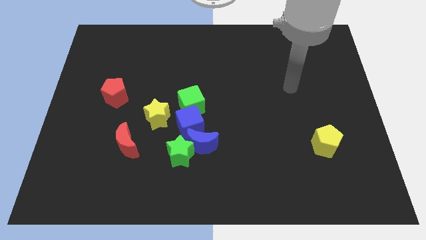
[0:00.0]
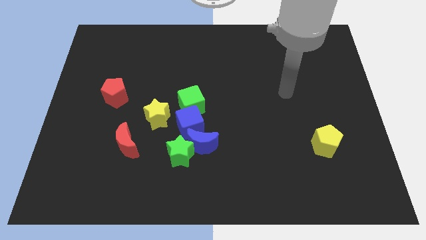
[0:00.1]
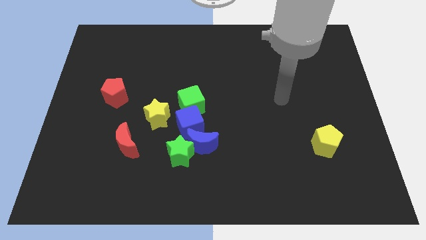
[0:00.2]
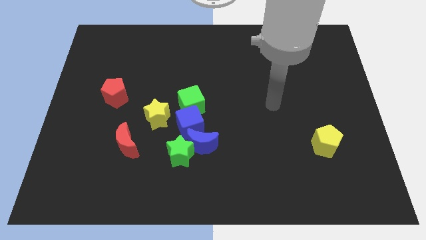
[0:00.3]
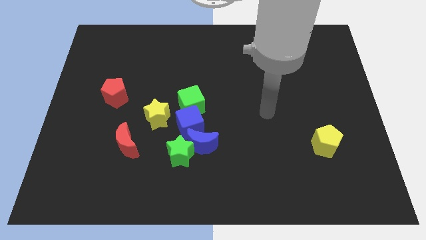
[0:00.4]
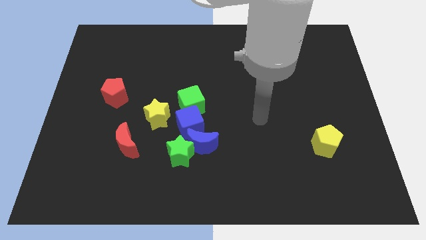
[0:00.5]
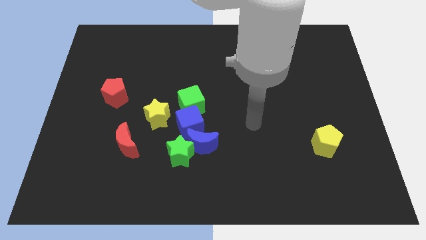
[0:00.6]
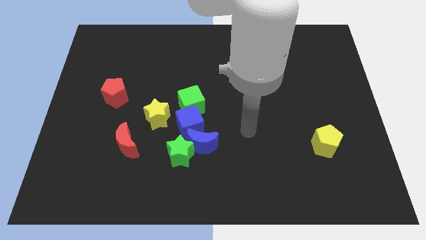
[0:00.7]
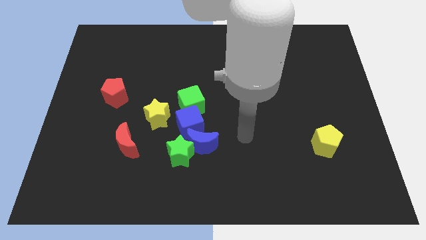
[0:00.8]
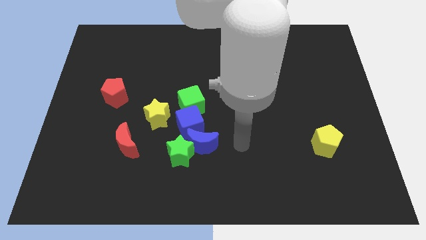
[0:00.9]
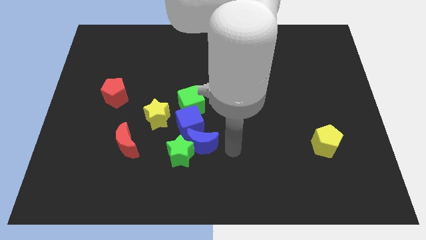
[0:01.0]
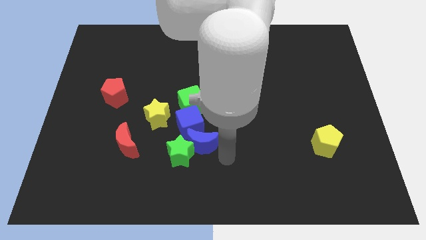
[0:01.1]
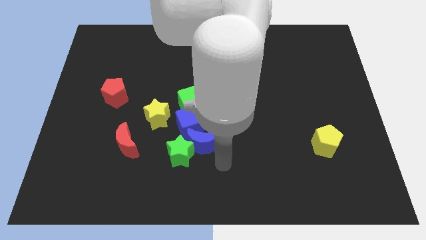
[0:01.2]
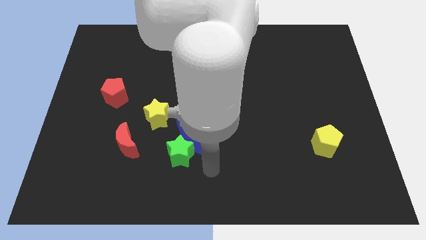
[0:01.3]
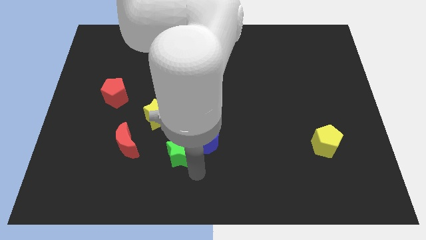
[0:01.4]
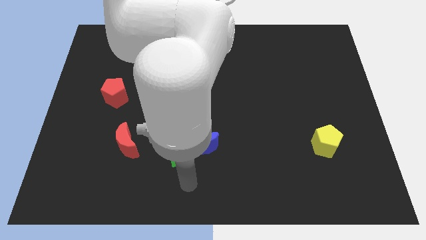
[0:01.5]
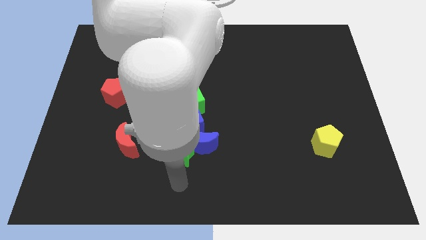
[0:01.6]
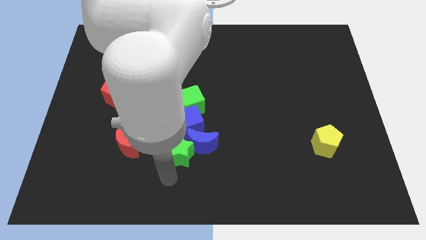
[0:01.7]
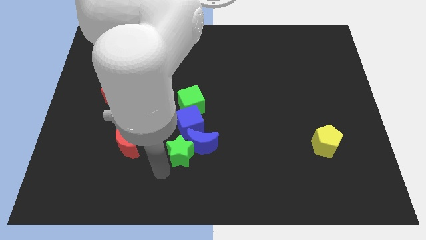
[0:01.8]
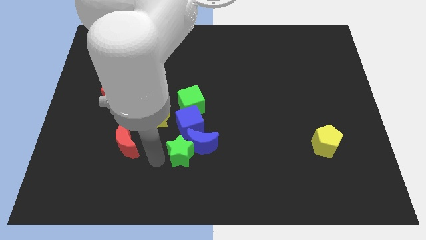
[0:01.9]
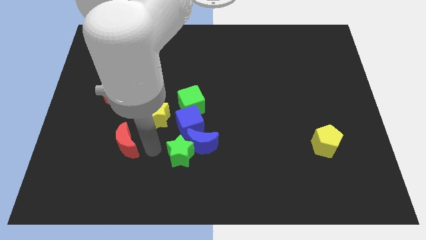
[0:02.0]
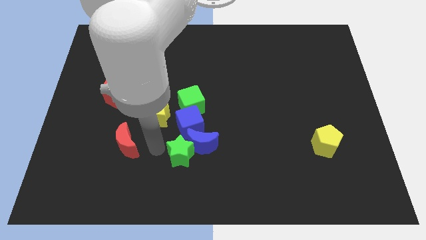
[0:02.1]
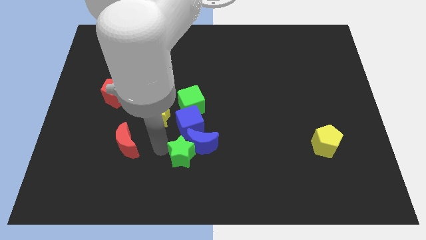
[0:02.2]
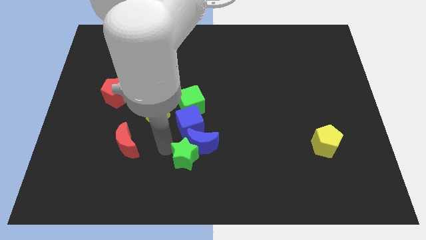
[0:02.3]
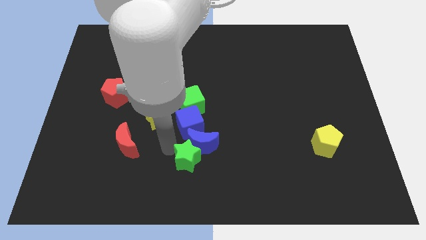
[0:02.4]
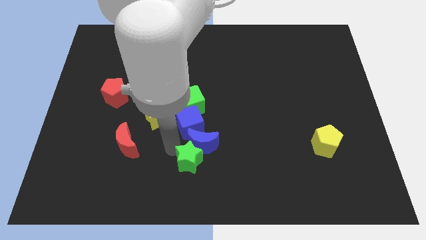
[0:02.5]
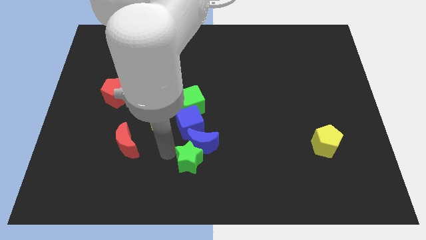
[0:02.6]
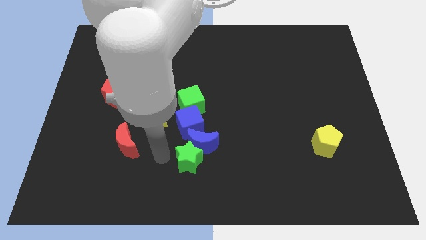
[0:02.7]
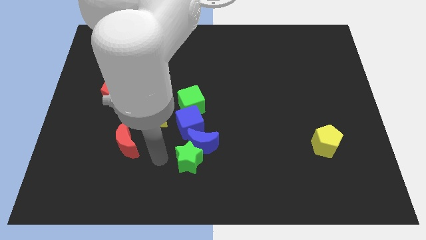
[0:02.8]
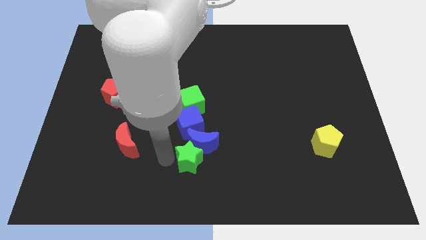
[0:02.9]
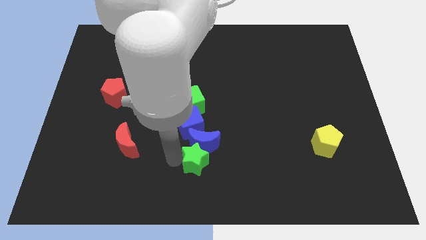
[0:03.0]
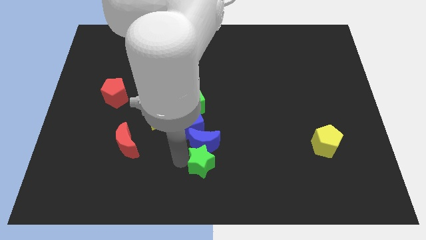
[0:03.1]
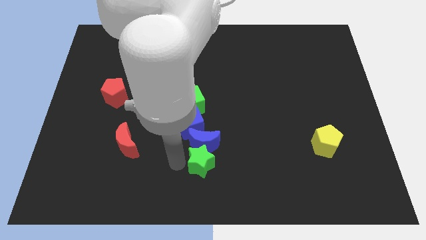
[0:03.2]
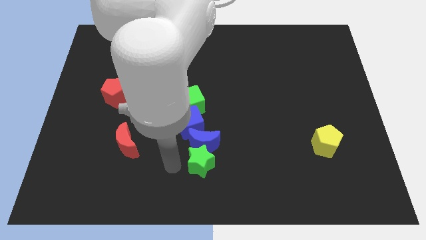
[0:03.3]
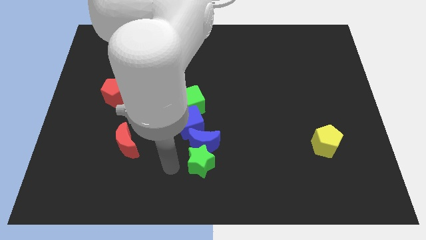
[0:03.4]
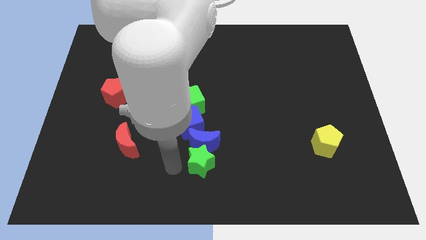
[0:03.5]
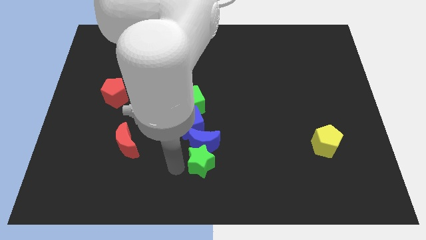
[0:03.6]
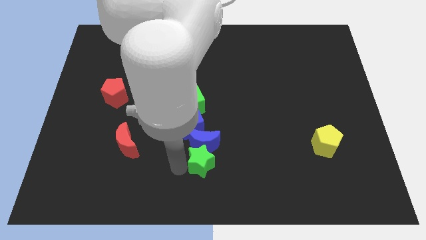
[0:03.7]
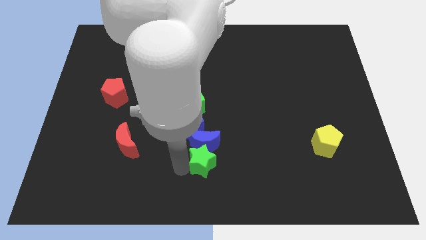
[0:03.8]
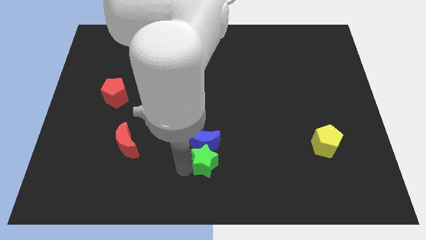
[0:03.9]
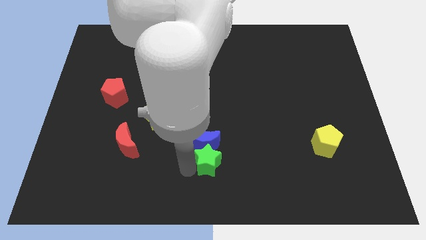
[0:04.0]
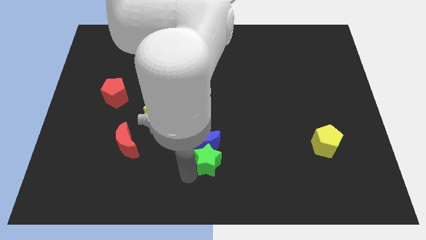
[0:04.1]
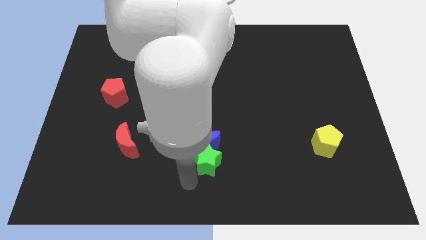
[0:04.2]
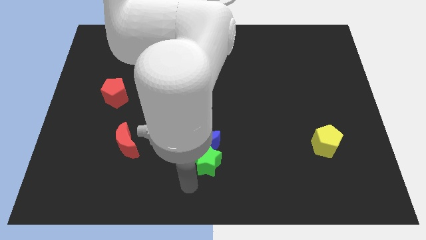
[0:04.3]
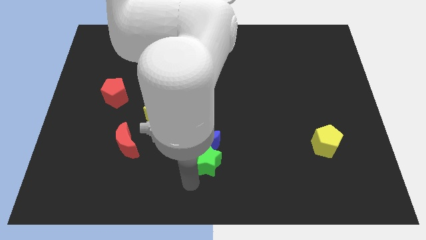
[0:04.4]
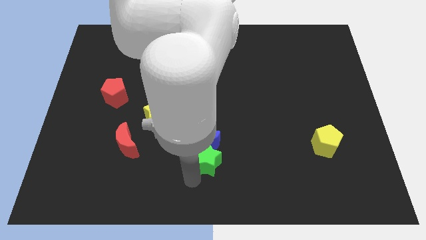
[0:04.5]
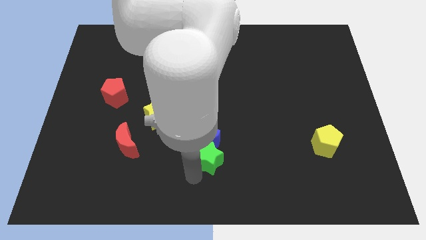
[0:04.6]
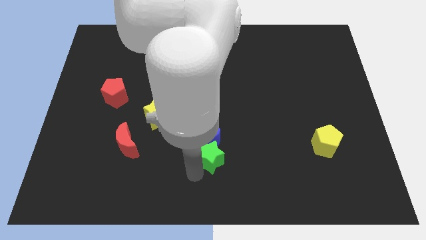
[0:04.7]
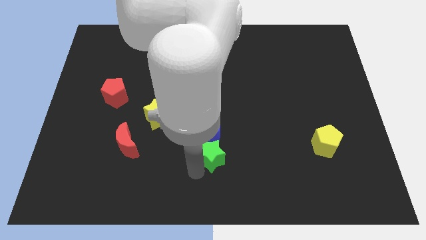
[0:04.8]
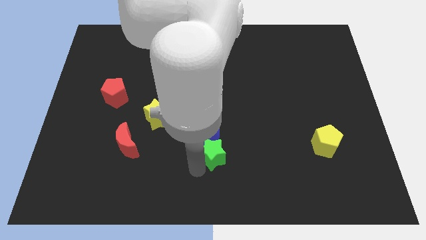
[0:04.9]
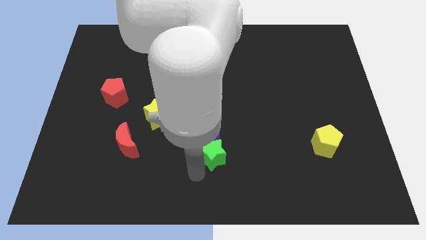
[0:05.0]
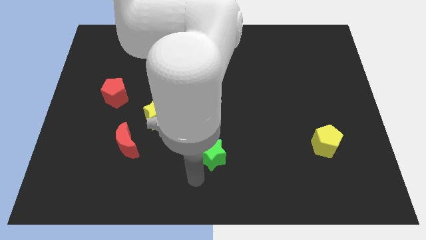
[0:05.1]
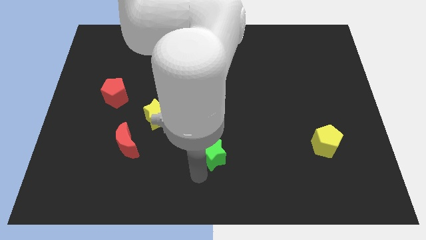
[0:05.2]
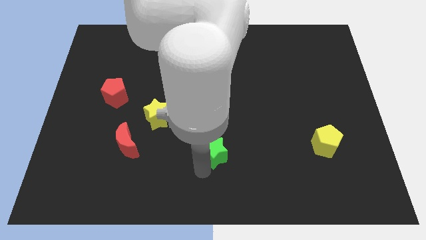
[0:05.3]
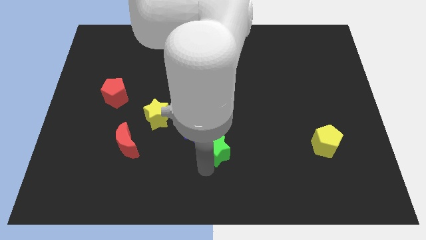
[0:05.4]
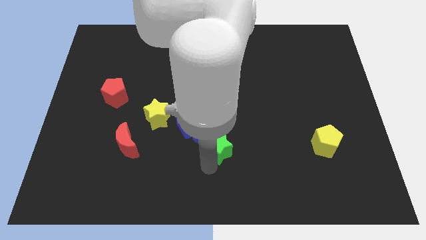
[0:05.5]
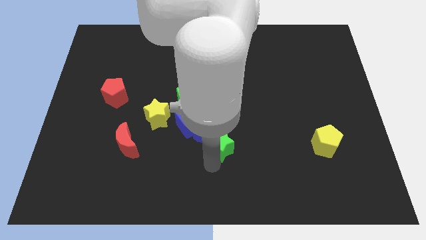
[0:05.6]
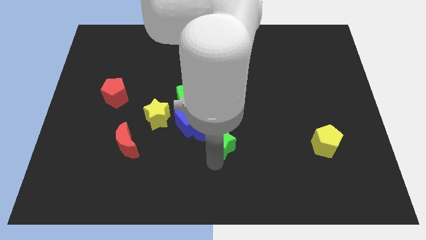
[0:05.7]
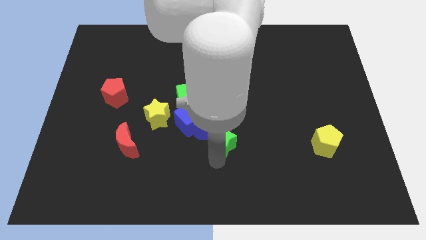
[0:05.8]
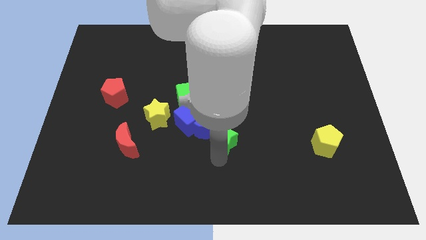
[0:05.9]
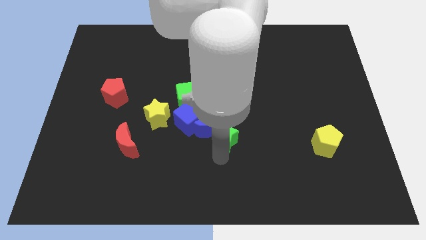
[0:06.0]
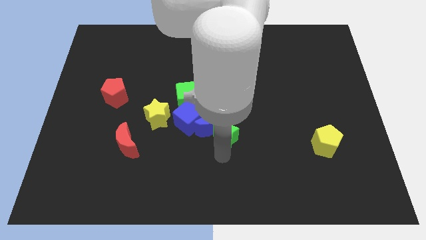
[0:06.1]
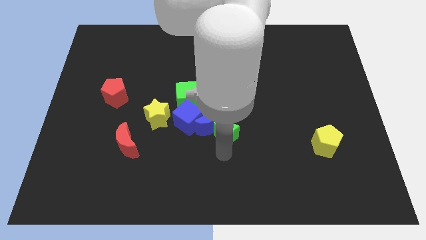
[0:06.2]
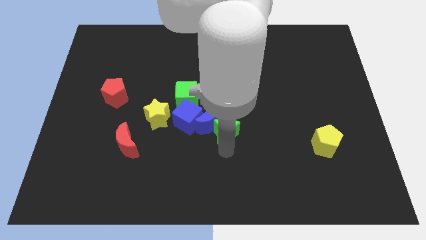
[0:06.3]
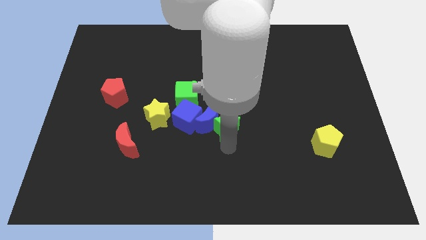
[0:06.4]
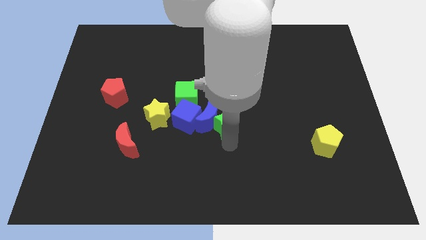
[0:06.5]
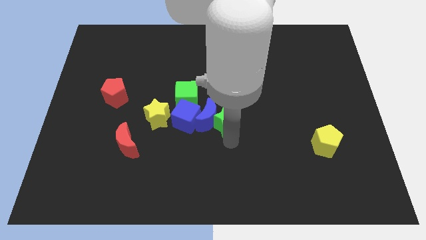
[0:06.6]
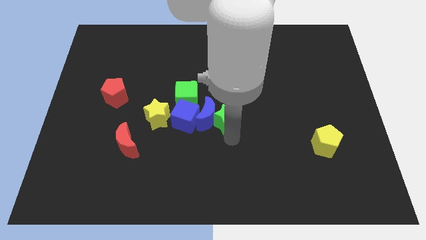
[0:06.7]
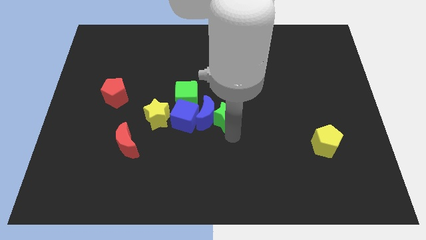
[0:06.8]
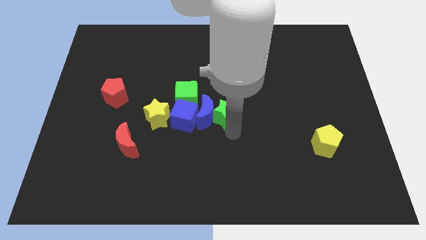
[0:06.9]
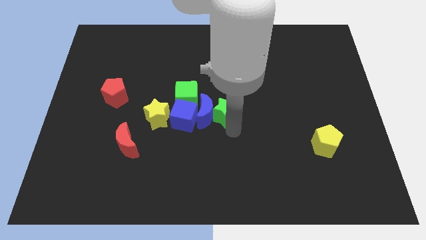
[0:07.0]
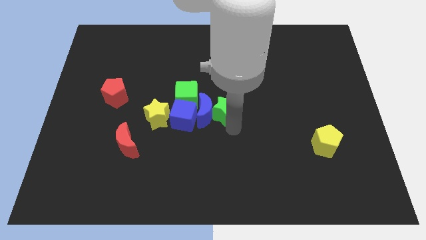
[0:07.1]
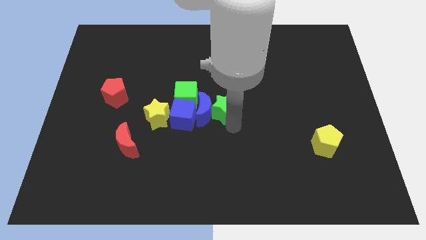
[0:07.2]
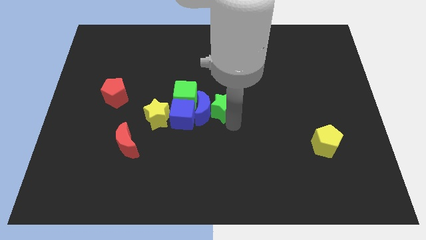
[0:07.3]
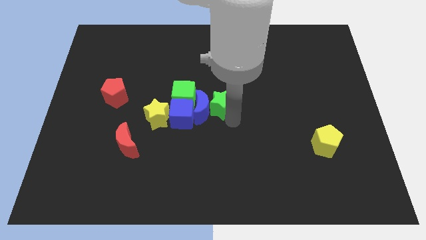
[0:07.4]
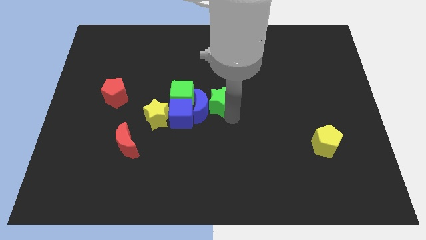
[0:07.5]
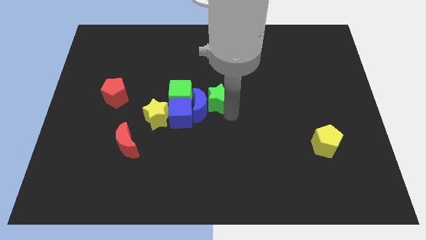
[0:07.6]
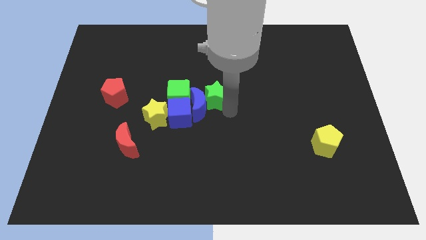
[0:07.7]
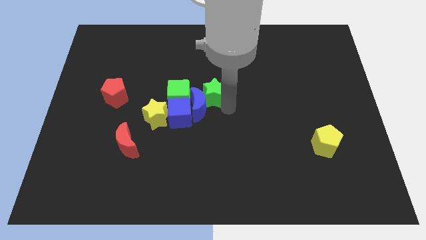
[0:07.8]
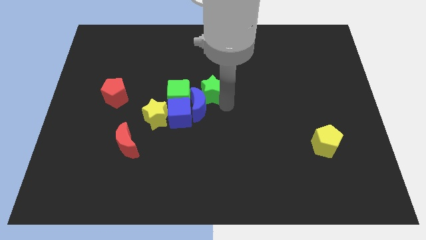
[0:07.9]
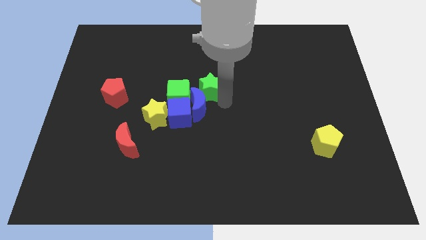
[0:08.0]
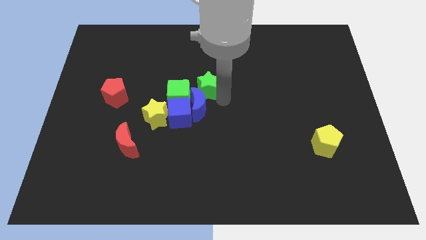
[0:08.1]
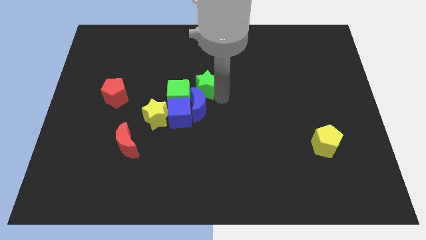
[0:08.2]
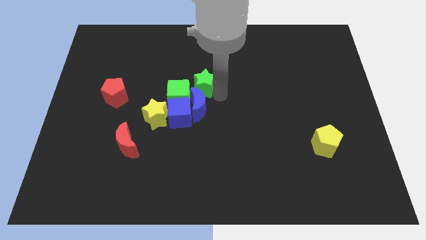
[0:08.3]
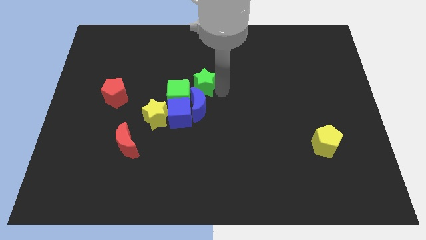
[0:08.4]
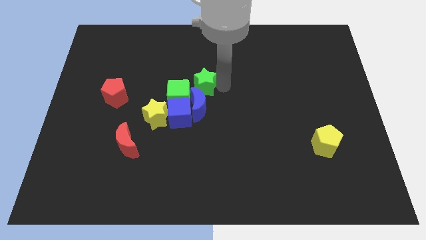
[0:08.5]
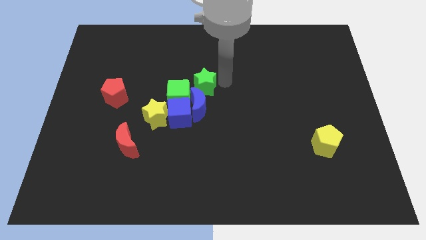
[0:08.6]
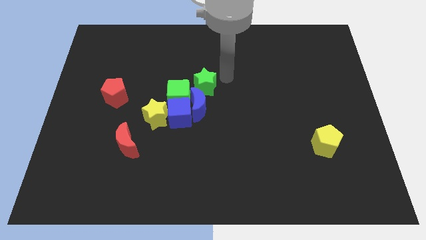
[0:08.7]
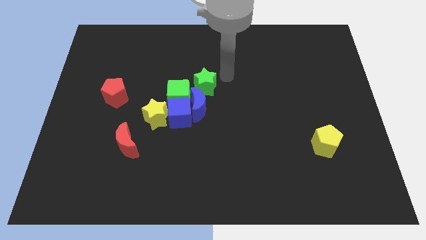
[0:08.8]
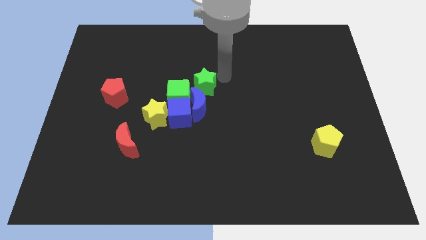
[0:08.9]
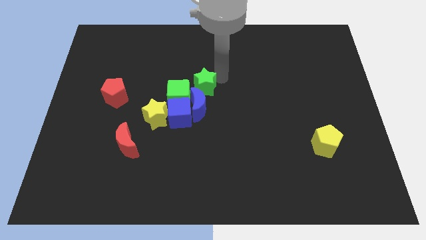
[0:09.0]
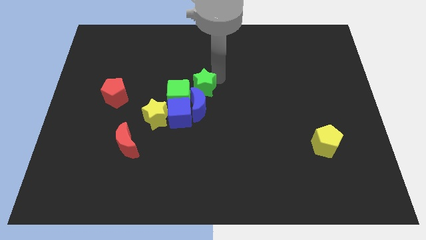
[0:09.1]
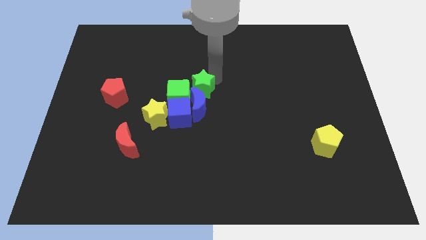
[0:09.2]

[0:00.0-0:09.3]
put the green star next to the green cube
